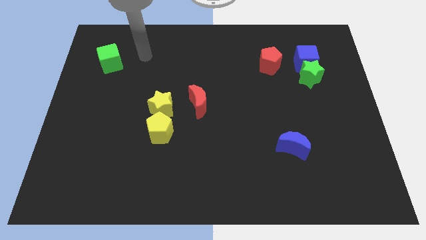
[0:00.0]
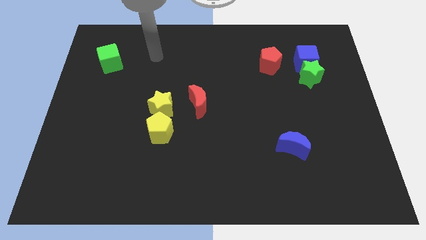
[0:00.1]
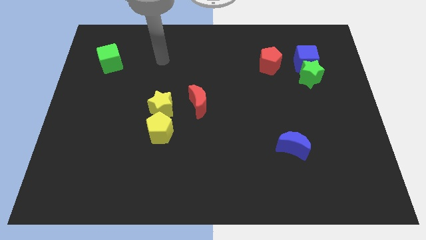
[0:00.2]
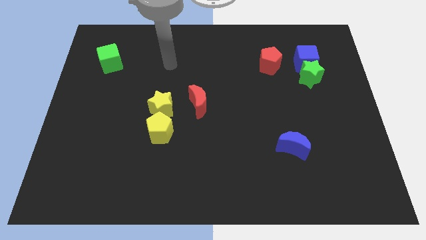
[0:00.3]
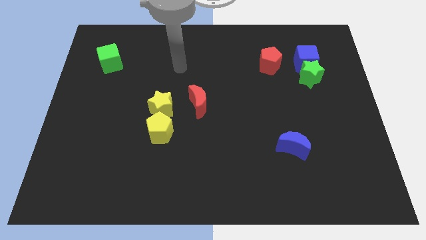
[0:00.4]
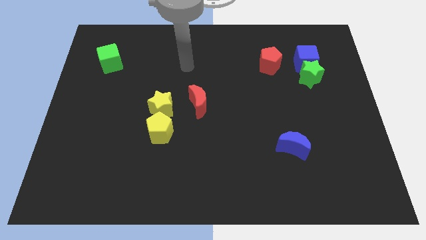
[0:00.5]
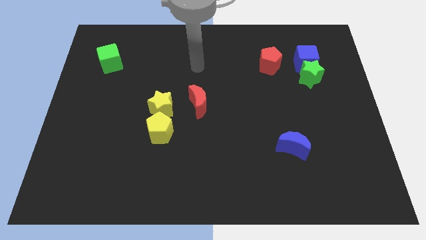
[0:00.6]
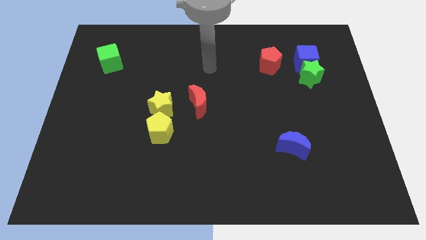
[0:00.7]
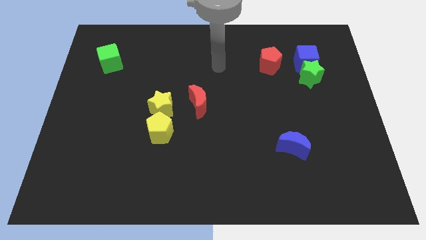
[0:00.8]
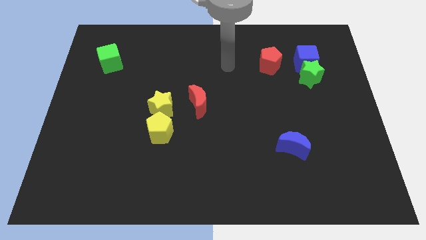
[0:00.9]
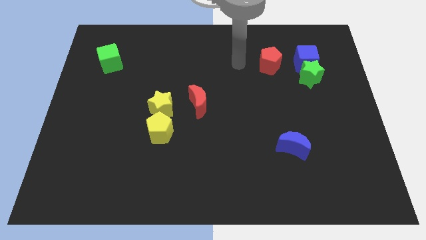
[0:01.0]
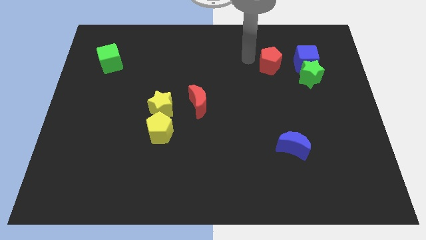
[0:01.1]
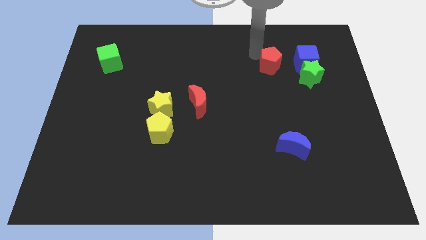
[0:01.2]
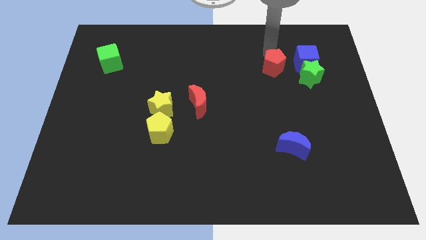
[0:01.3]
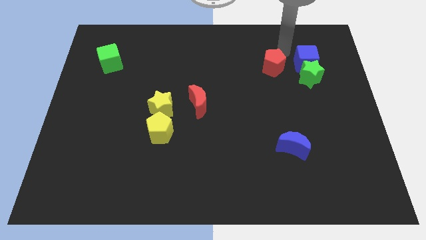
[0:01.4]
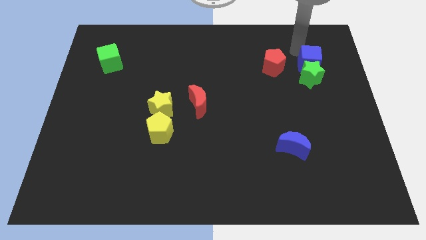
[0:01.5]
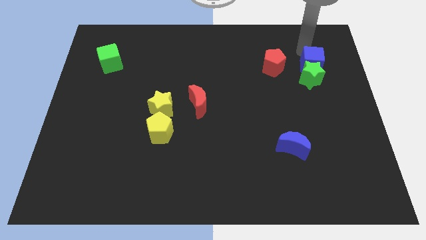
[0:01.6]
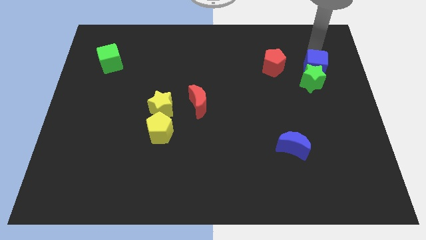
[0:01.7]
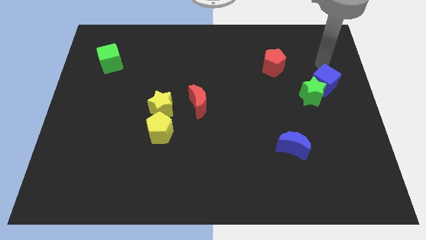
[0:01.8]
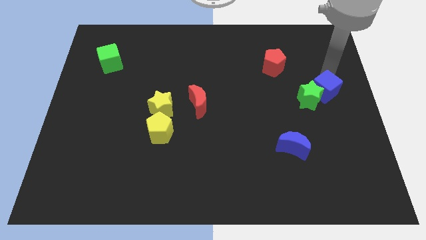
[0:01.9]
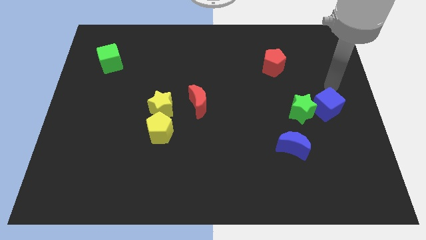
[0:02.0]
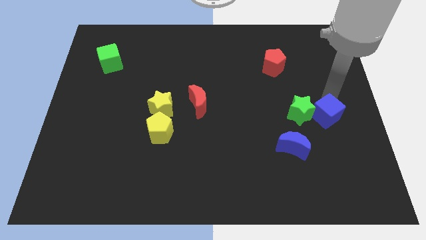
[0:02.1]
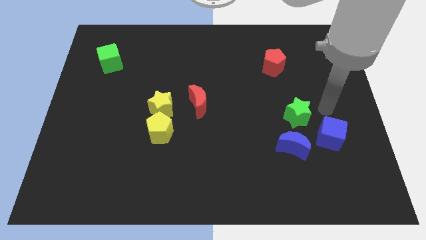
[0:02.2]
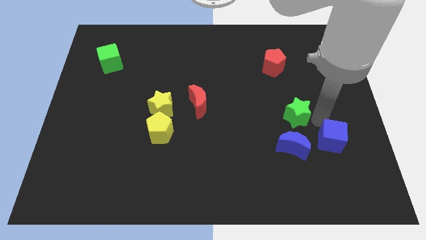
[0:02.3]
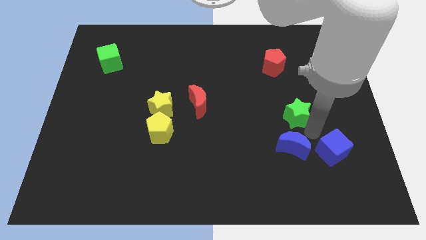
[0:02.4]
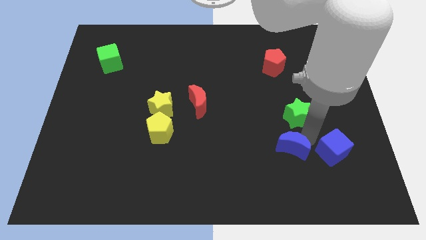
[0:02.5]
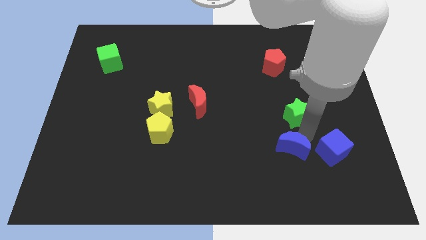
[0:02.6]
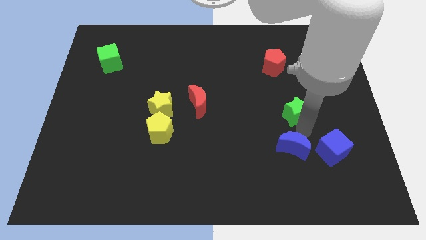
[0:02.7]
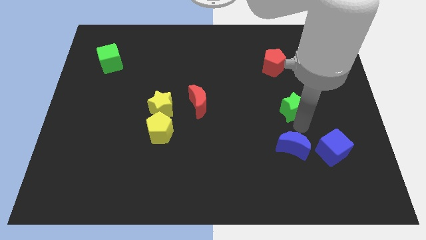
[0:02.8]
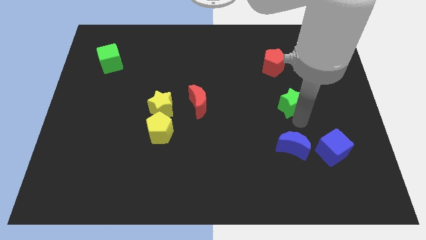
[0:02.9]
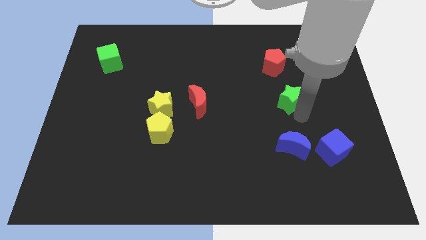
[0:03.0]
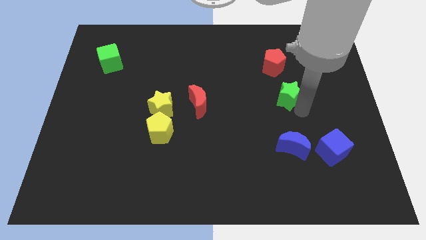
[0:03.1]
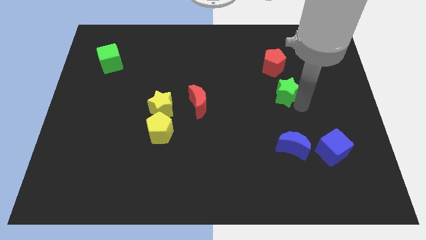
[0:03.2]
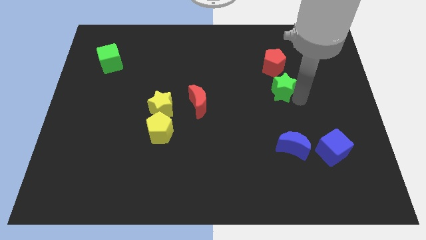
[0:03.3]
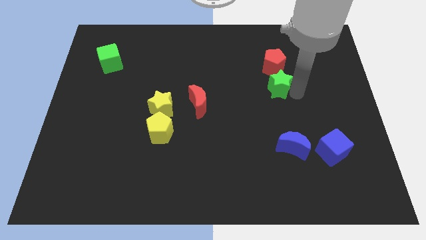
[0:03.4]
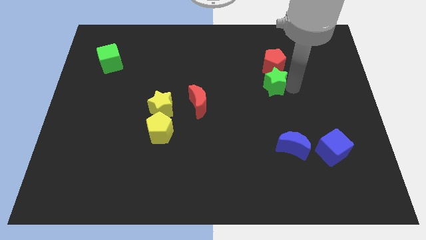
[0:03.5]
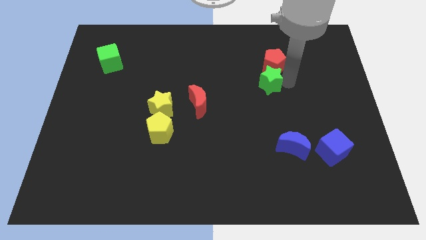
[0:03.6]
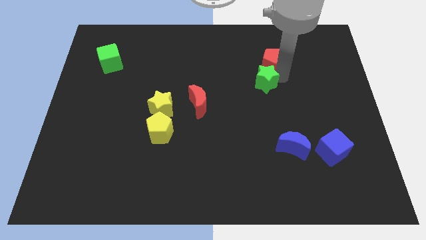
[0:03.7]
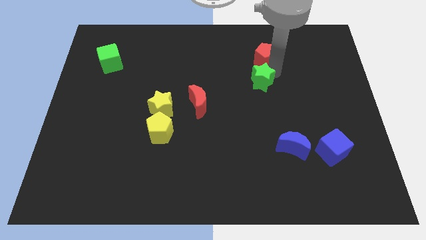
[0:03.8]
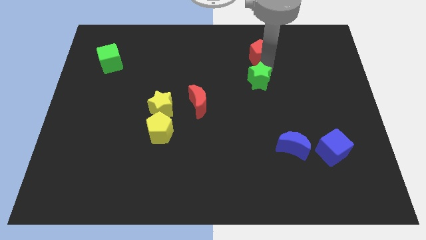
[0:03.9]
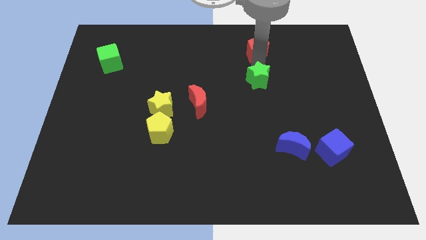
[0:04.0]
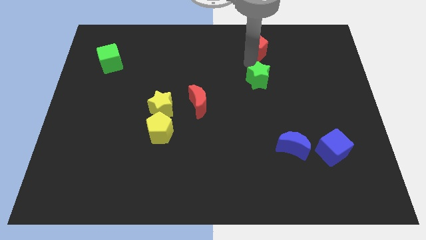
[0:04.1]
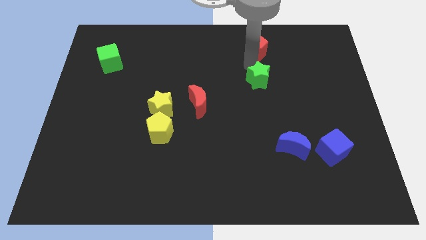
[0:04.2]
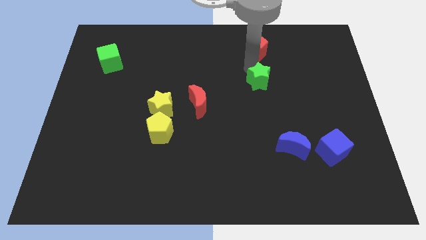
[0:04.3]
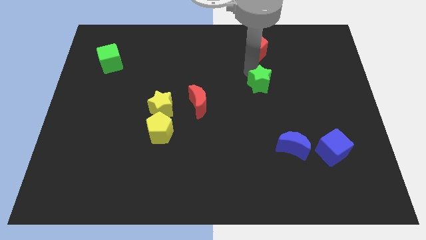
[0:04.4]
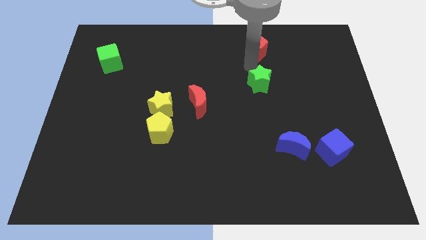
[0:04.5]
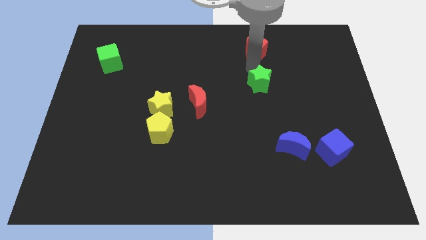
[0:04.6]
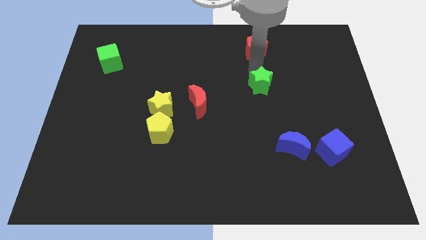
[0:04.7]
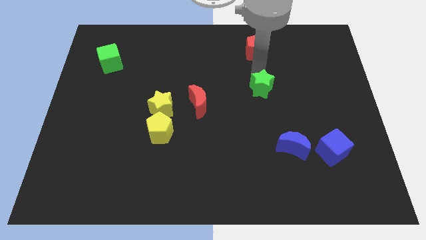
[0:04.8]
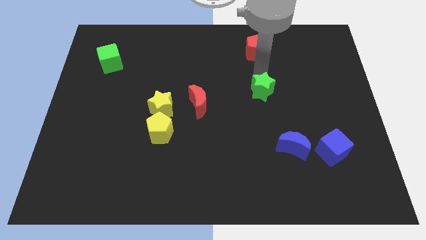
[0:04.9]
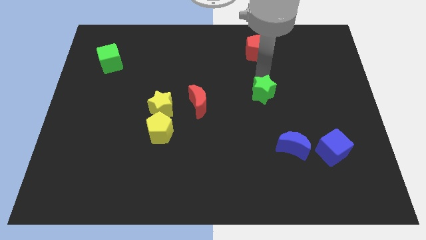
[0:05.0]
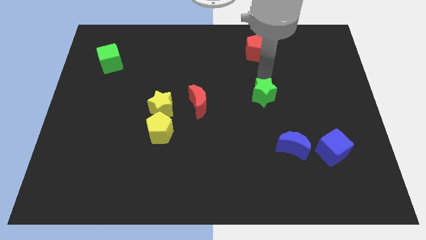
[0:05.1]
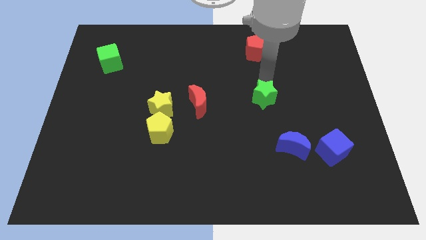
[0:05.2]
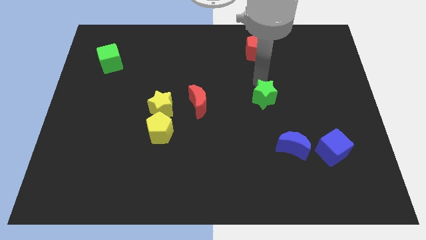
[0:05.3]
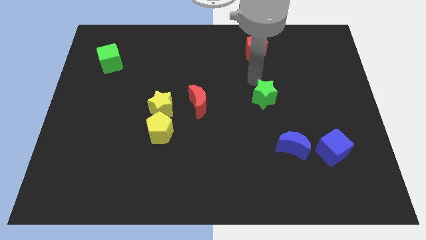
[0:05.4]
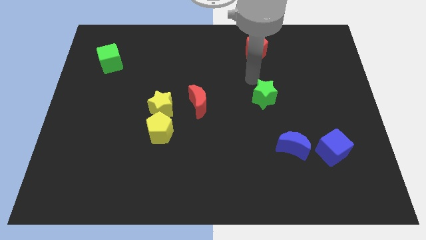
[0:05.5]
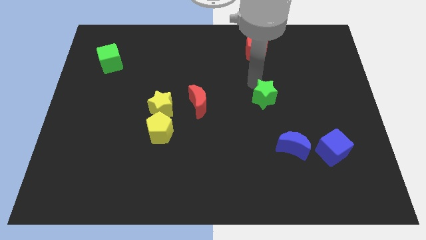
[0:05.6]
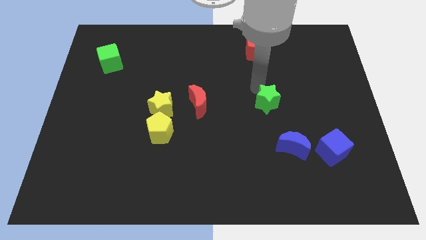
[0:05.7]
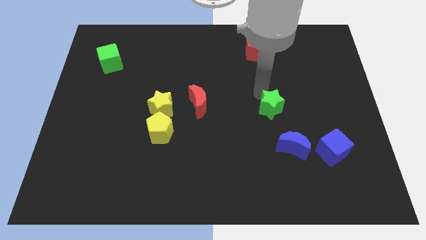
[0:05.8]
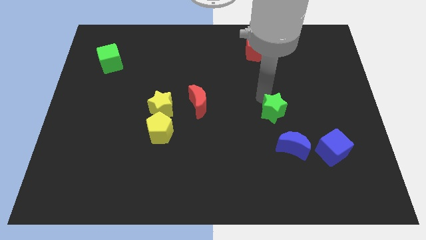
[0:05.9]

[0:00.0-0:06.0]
put the green star to the top left of the blue moon

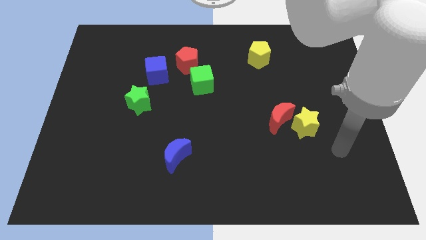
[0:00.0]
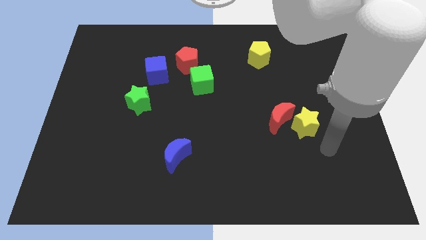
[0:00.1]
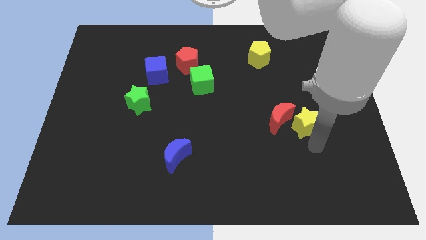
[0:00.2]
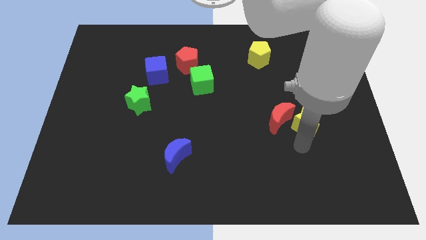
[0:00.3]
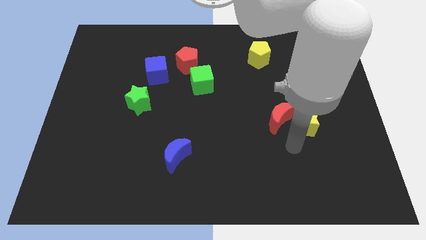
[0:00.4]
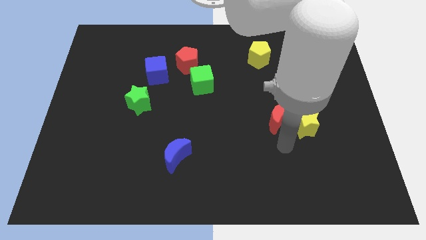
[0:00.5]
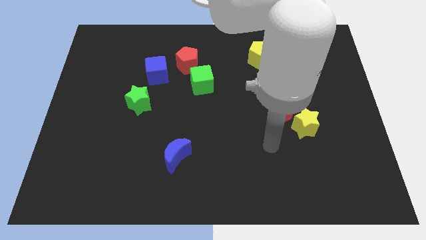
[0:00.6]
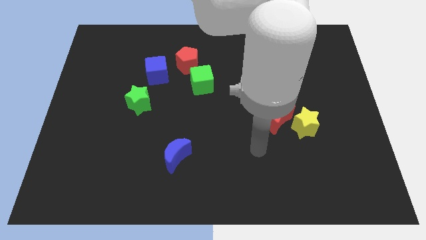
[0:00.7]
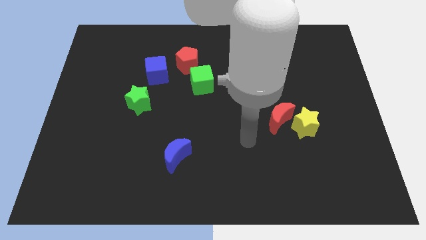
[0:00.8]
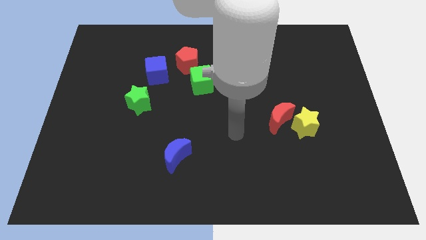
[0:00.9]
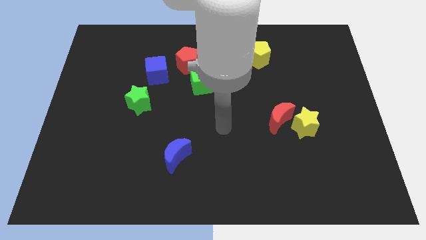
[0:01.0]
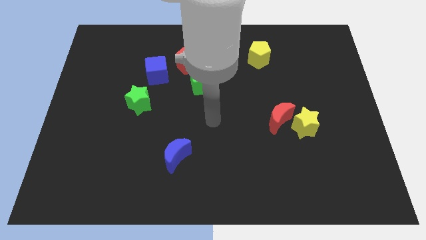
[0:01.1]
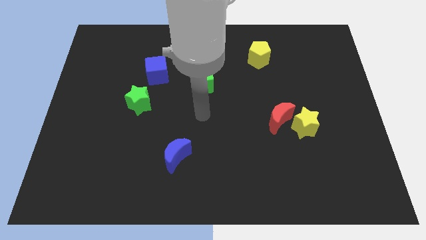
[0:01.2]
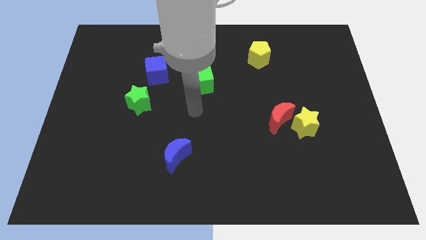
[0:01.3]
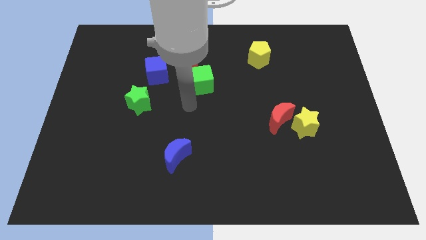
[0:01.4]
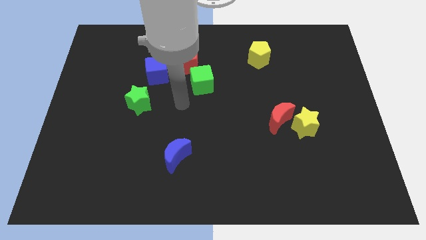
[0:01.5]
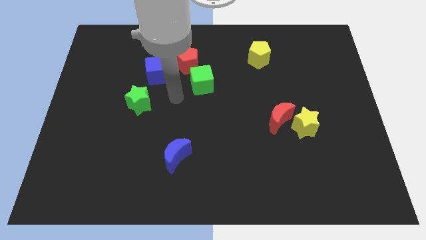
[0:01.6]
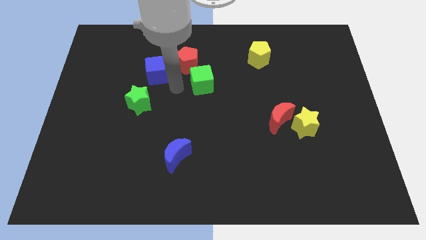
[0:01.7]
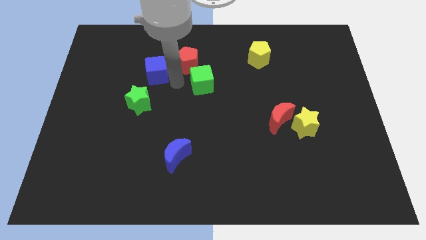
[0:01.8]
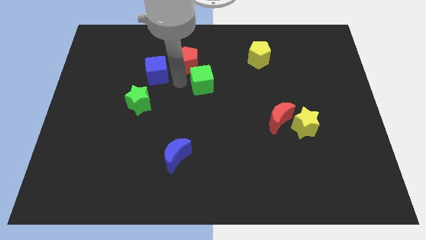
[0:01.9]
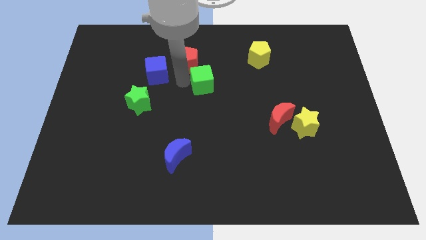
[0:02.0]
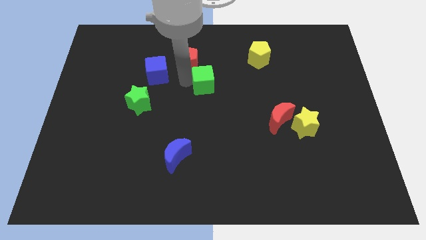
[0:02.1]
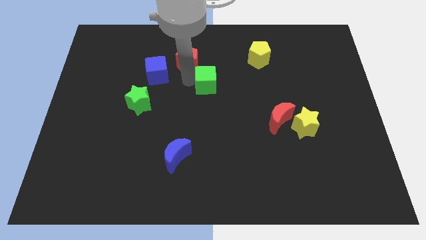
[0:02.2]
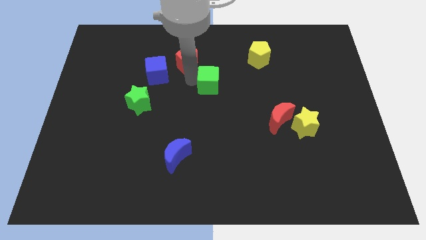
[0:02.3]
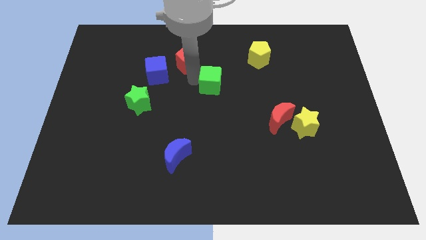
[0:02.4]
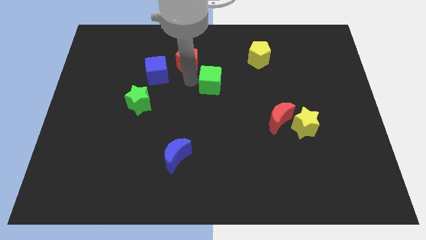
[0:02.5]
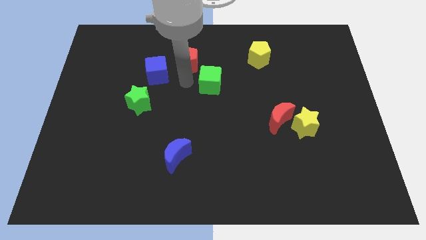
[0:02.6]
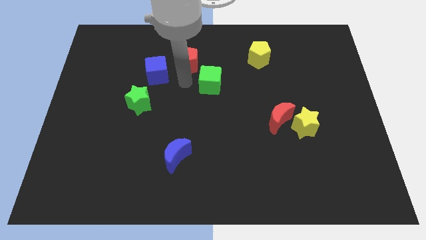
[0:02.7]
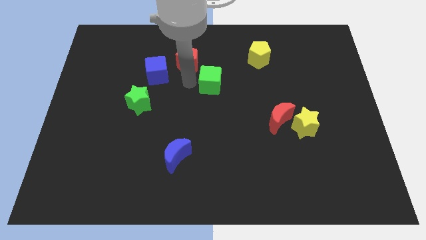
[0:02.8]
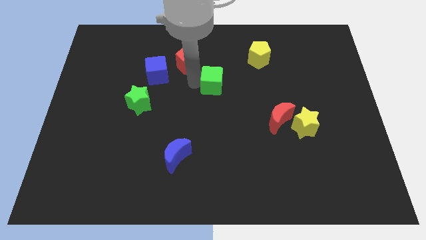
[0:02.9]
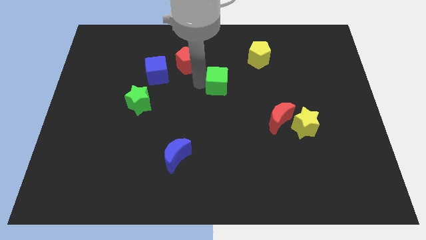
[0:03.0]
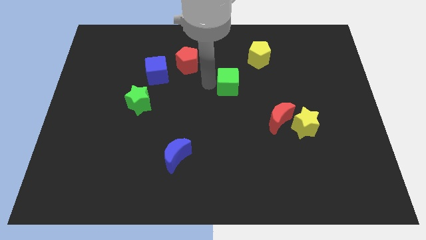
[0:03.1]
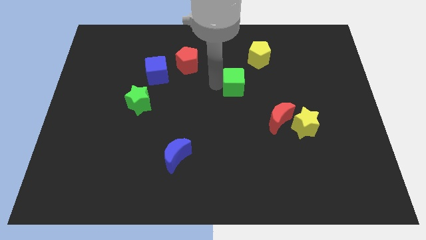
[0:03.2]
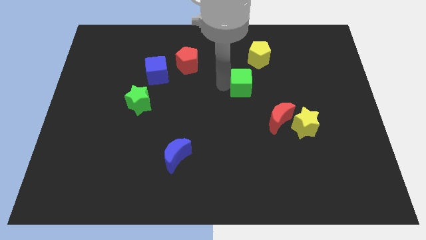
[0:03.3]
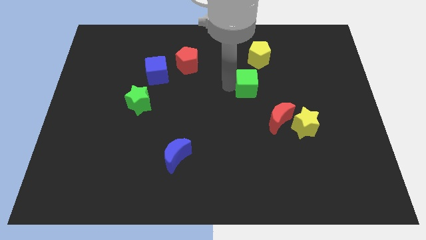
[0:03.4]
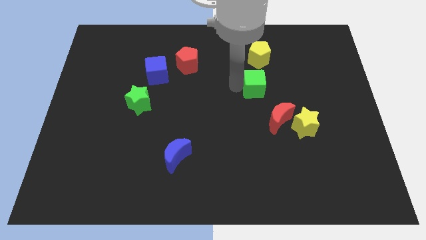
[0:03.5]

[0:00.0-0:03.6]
slide the green cube to the top side of the red moon
